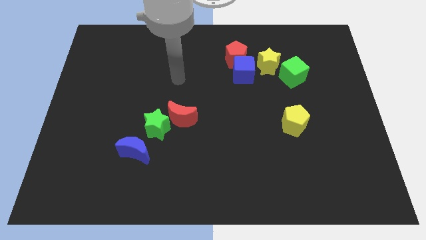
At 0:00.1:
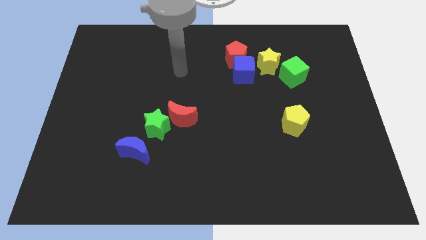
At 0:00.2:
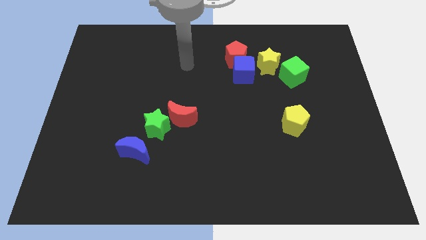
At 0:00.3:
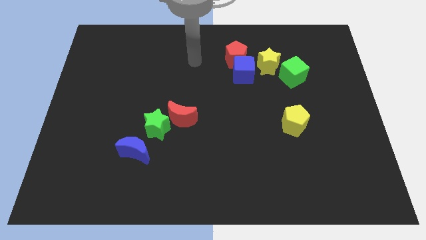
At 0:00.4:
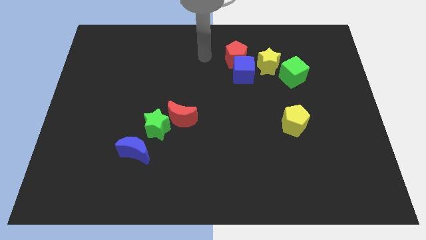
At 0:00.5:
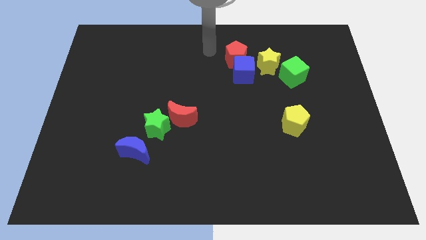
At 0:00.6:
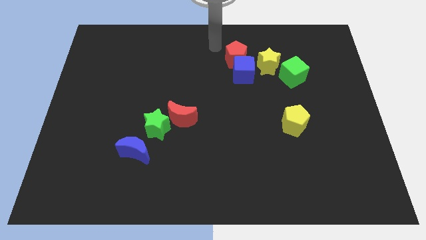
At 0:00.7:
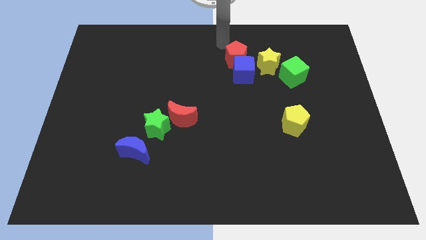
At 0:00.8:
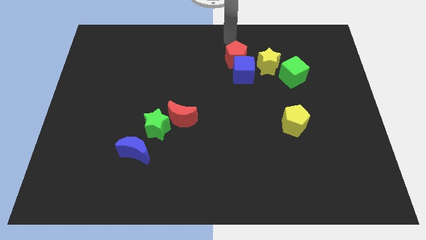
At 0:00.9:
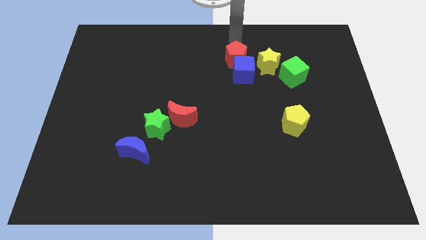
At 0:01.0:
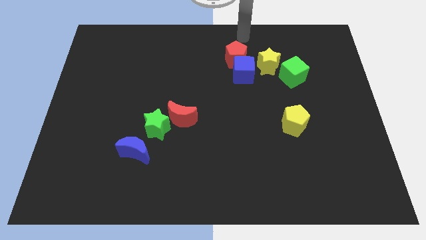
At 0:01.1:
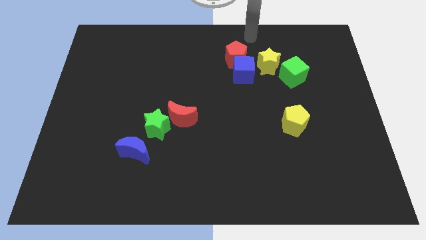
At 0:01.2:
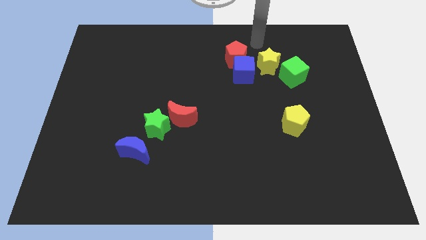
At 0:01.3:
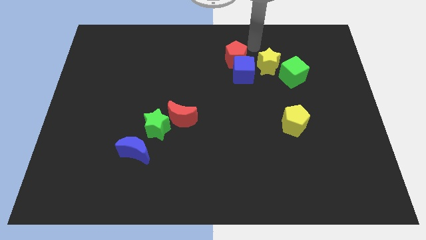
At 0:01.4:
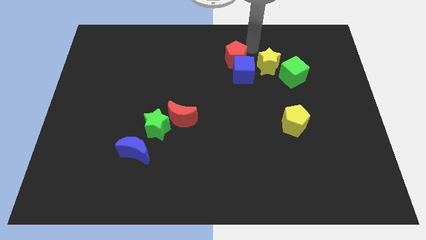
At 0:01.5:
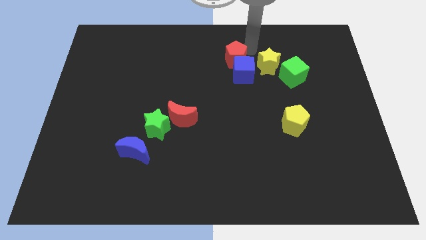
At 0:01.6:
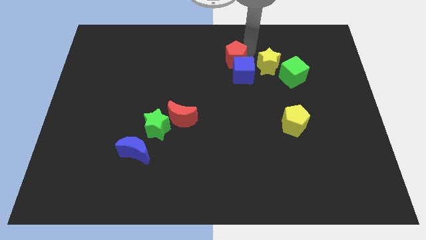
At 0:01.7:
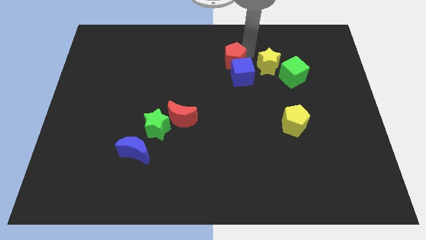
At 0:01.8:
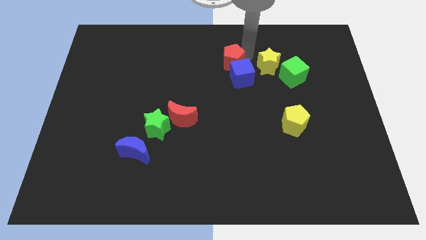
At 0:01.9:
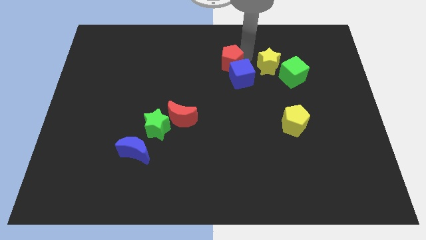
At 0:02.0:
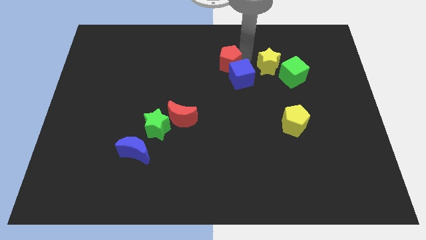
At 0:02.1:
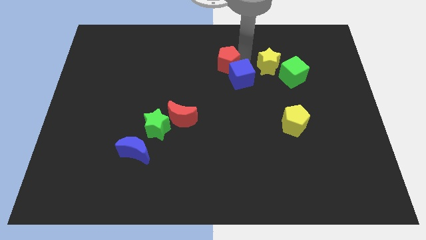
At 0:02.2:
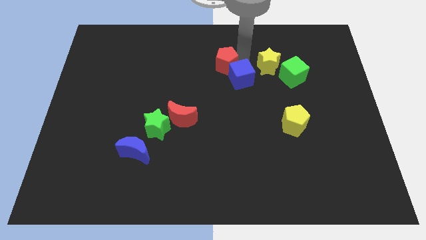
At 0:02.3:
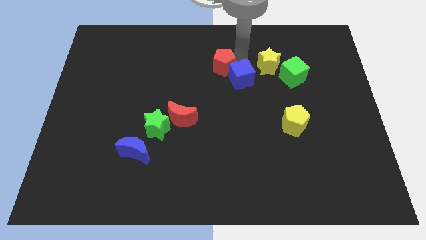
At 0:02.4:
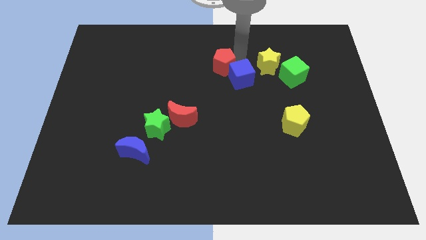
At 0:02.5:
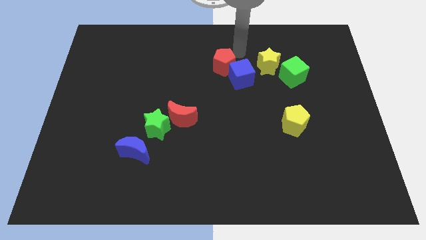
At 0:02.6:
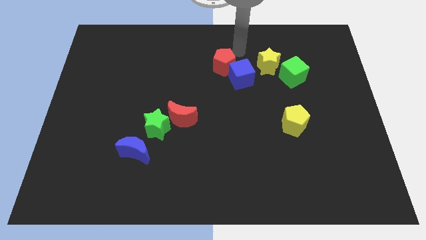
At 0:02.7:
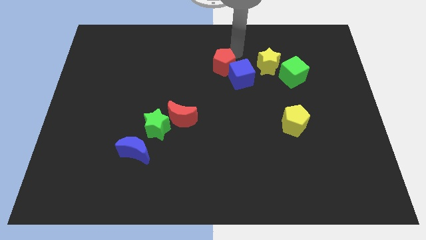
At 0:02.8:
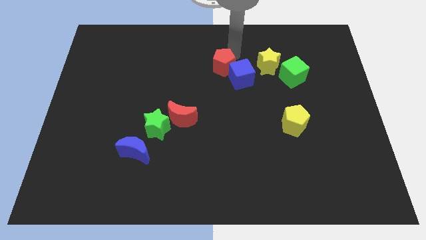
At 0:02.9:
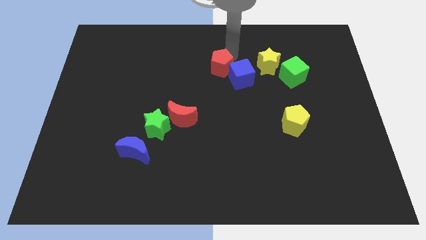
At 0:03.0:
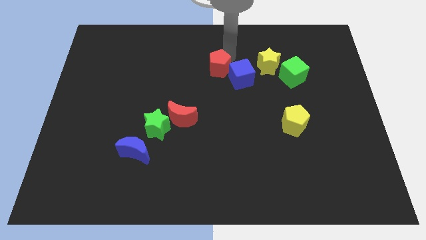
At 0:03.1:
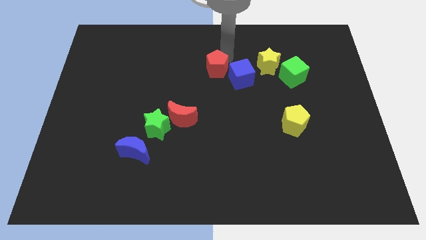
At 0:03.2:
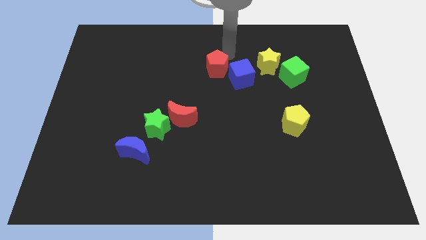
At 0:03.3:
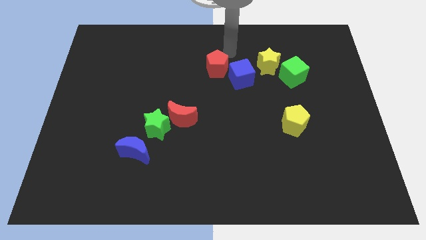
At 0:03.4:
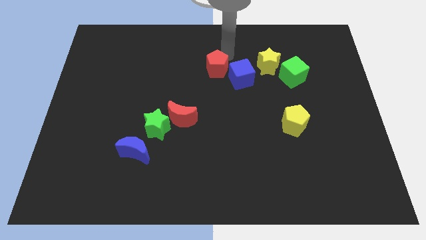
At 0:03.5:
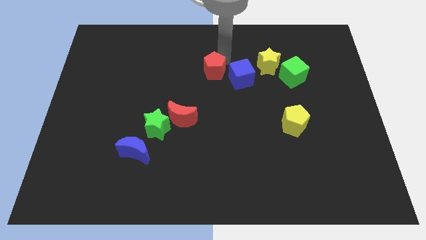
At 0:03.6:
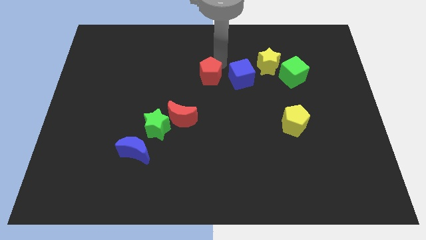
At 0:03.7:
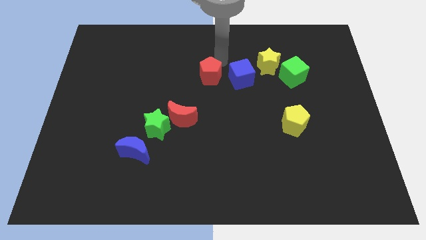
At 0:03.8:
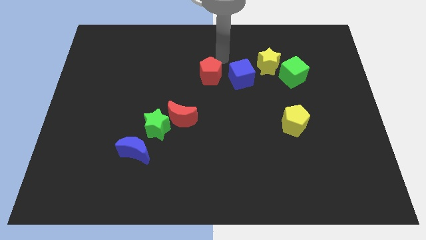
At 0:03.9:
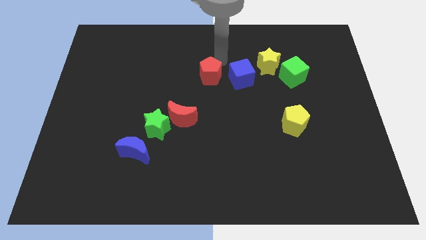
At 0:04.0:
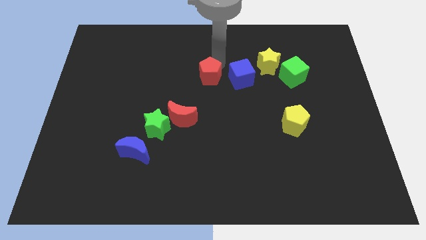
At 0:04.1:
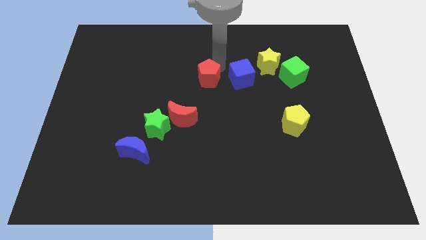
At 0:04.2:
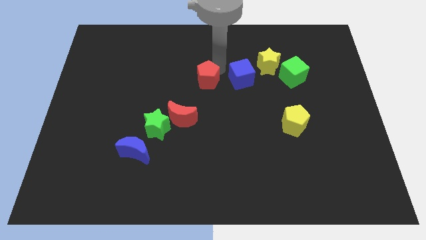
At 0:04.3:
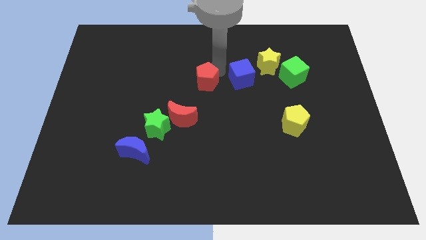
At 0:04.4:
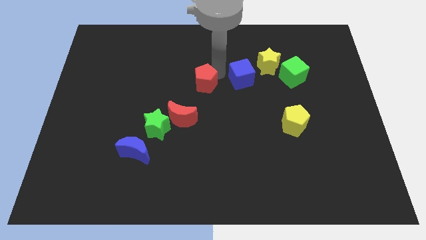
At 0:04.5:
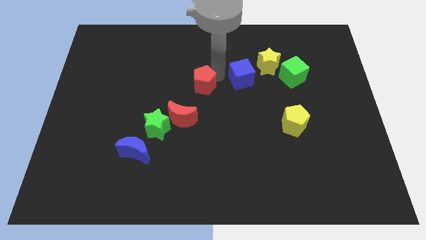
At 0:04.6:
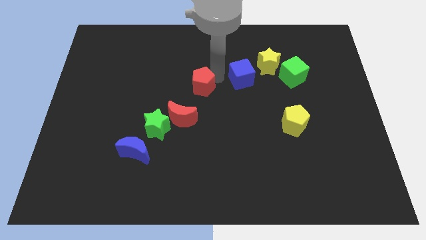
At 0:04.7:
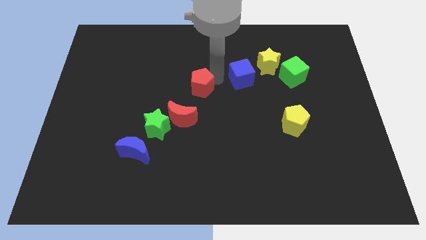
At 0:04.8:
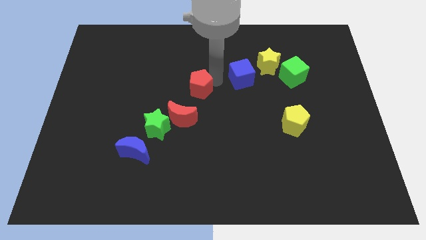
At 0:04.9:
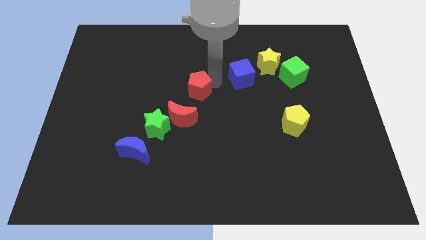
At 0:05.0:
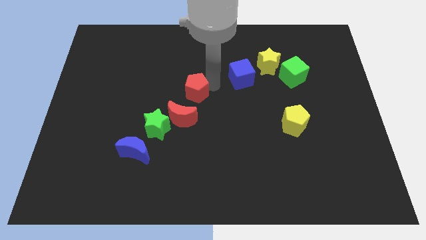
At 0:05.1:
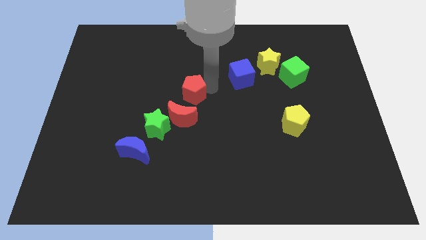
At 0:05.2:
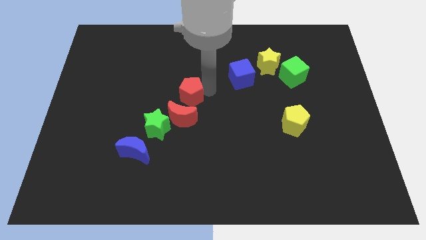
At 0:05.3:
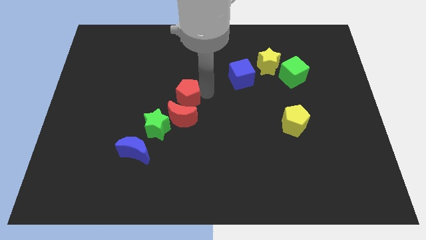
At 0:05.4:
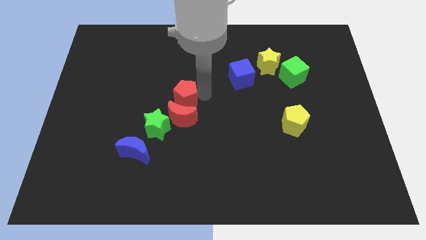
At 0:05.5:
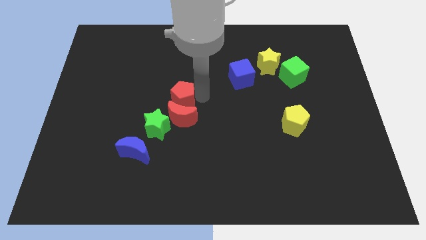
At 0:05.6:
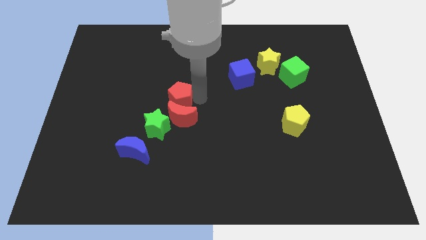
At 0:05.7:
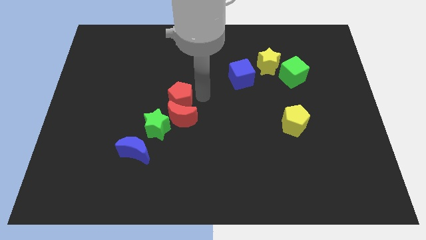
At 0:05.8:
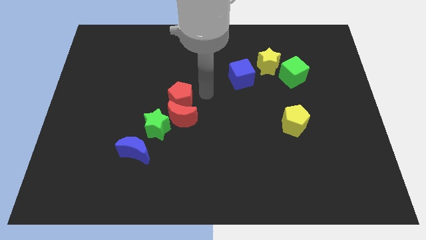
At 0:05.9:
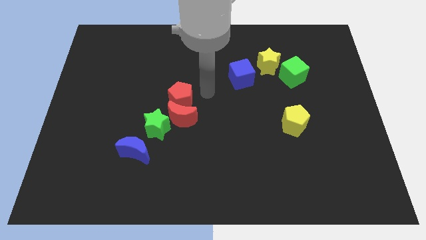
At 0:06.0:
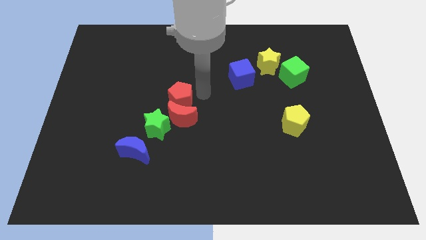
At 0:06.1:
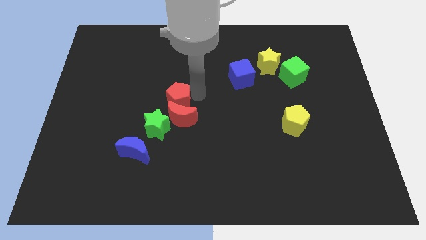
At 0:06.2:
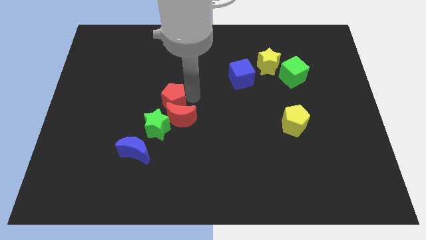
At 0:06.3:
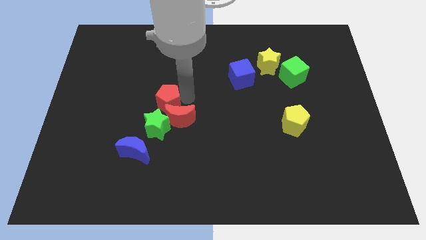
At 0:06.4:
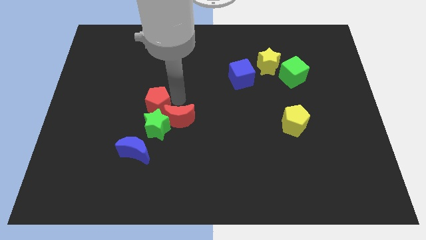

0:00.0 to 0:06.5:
move the red pentagon just left of the red moon

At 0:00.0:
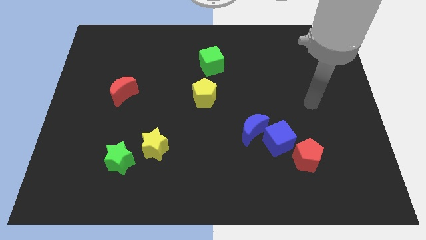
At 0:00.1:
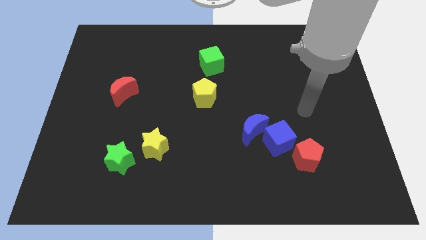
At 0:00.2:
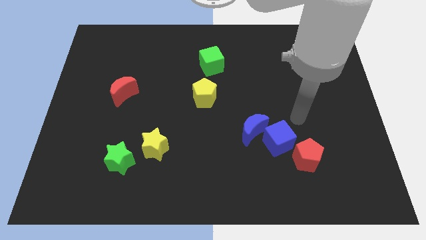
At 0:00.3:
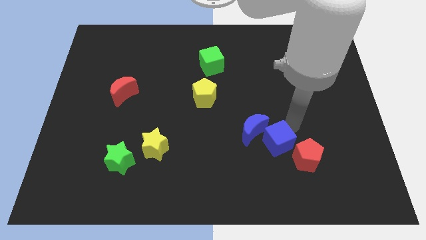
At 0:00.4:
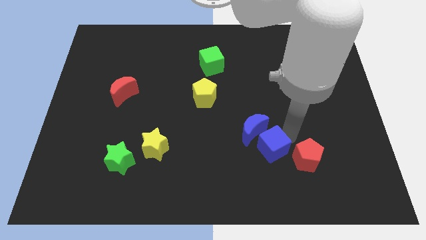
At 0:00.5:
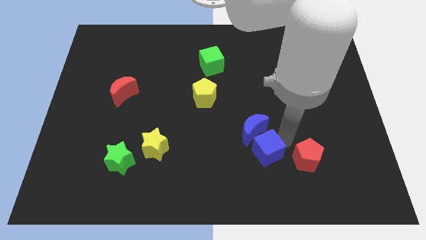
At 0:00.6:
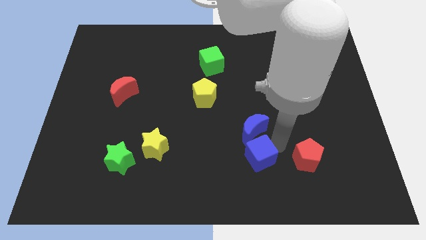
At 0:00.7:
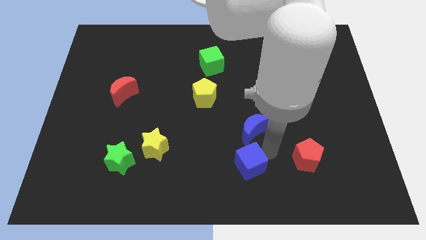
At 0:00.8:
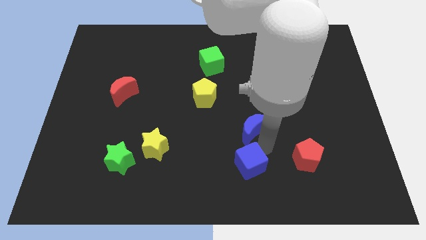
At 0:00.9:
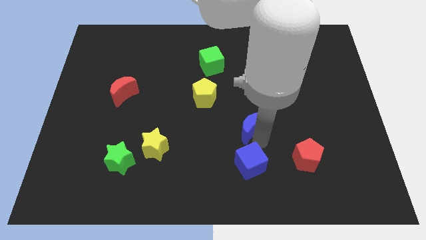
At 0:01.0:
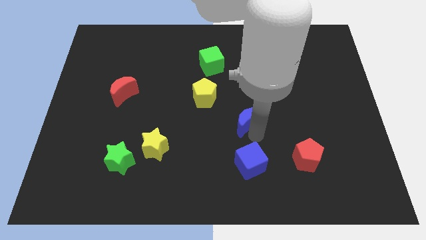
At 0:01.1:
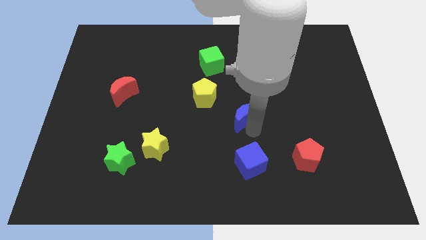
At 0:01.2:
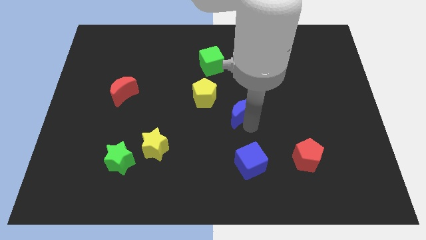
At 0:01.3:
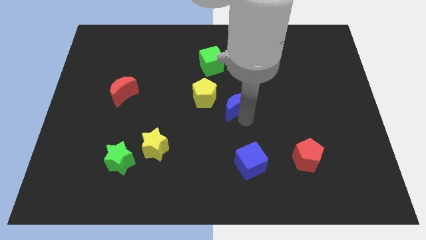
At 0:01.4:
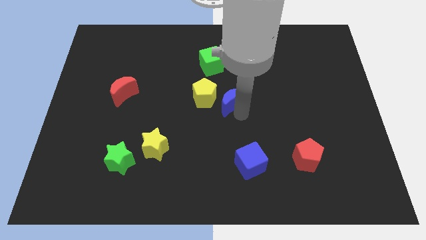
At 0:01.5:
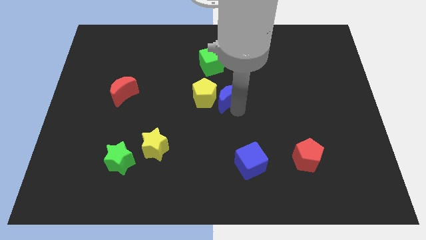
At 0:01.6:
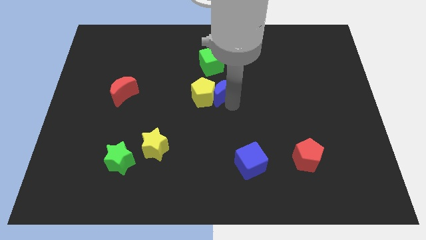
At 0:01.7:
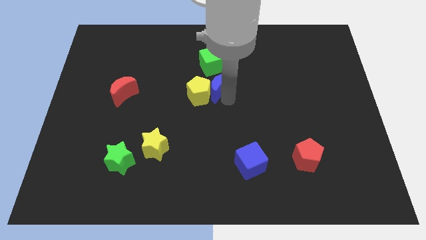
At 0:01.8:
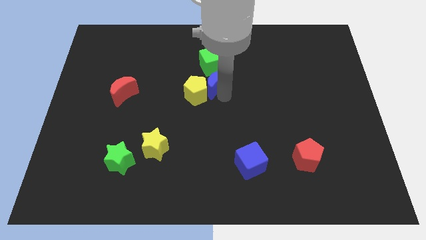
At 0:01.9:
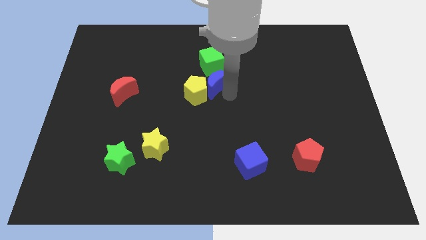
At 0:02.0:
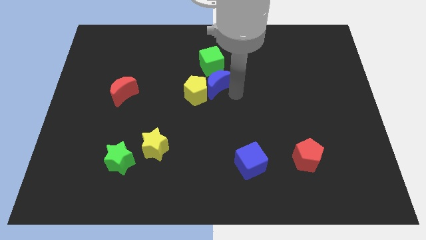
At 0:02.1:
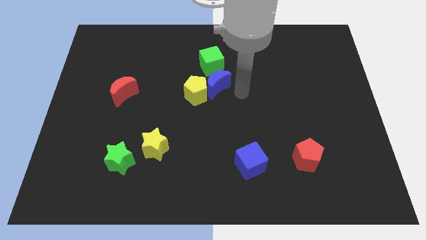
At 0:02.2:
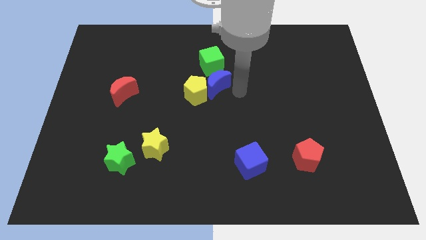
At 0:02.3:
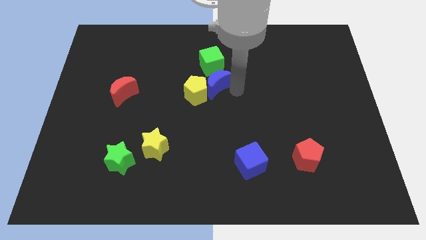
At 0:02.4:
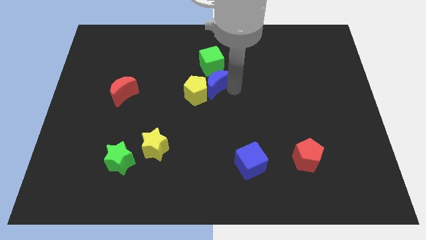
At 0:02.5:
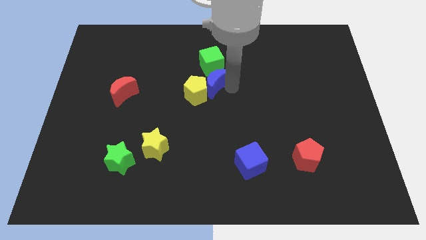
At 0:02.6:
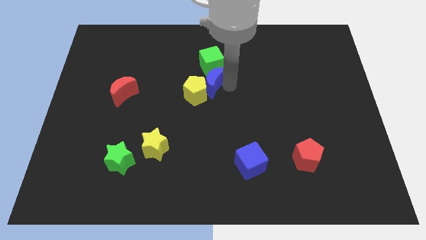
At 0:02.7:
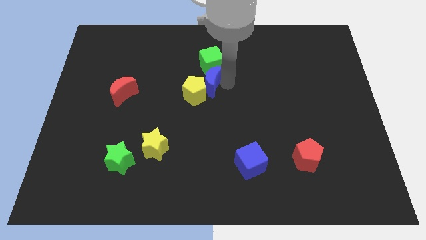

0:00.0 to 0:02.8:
put the blue moon to the bottom left of the green cube
